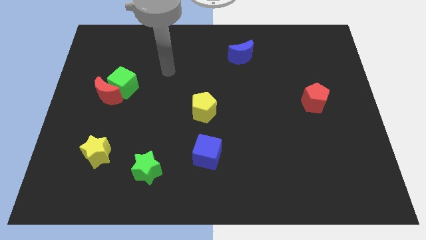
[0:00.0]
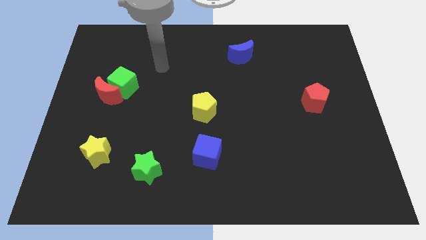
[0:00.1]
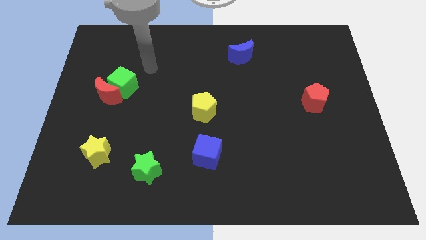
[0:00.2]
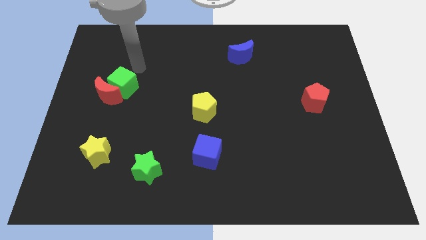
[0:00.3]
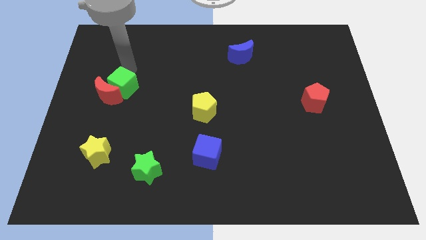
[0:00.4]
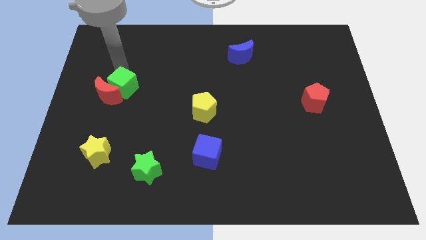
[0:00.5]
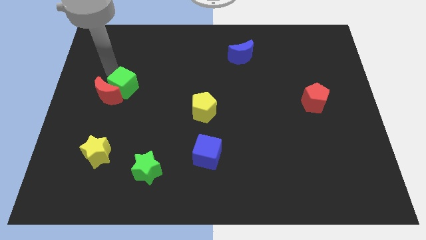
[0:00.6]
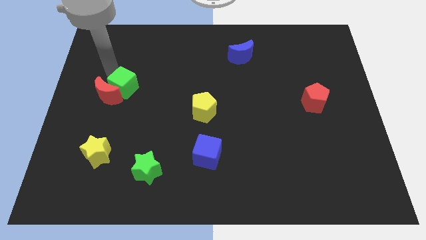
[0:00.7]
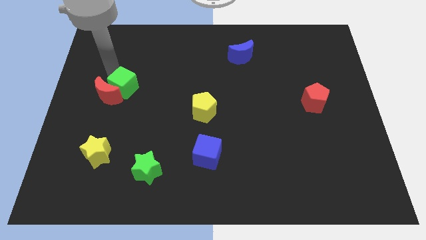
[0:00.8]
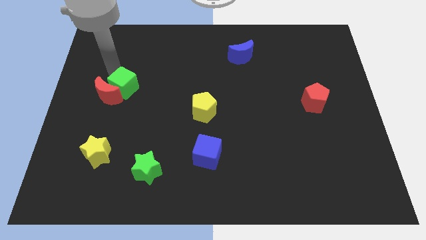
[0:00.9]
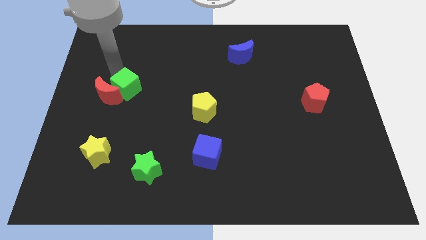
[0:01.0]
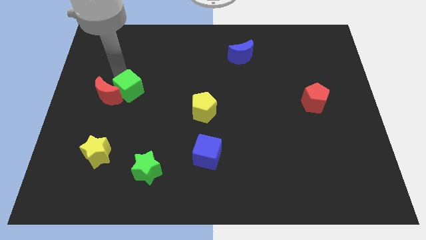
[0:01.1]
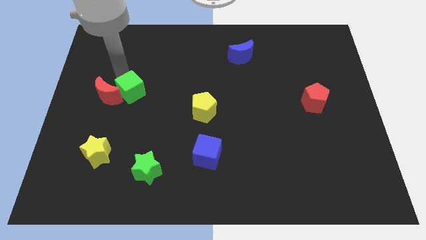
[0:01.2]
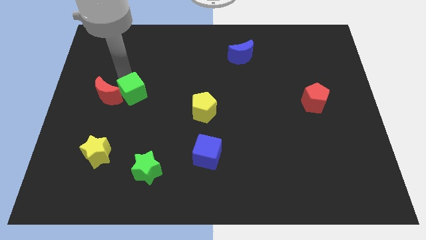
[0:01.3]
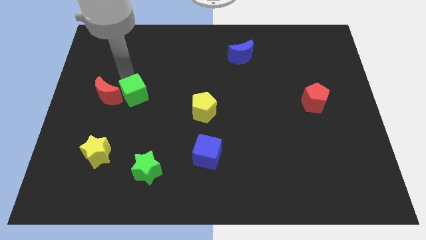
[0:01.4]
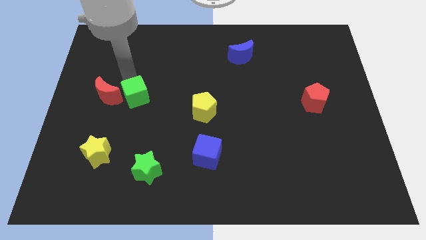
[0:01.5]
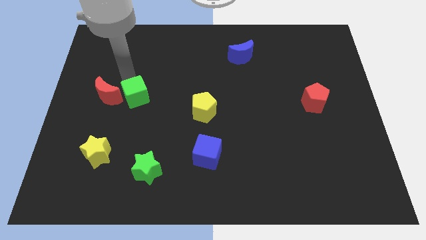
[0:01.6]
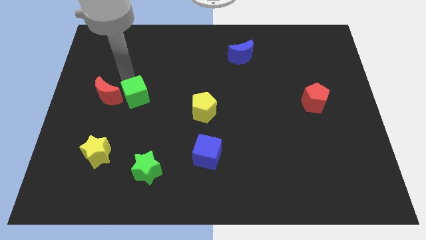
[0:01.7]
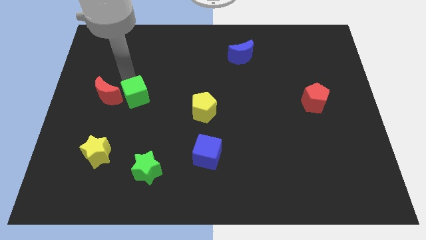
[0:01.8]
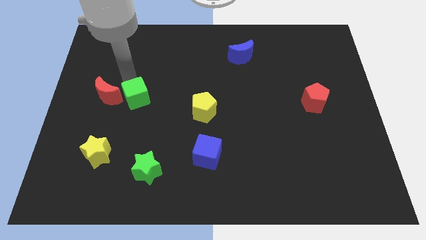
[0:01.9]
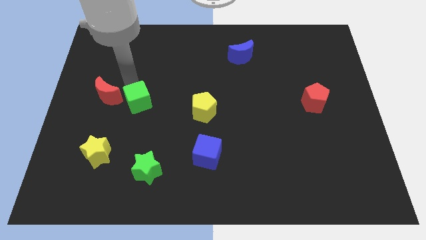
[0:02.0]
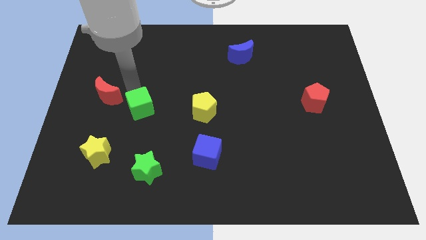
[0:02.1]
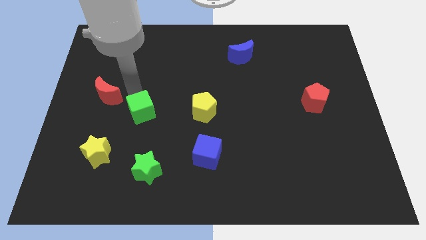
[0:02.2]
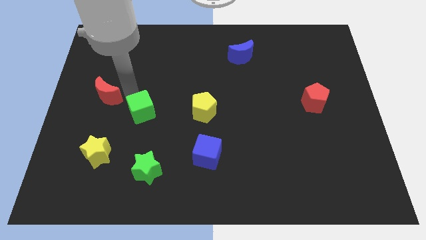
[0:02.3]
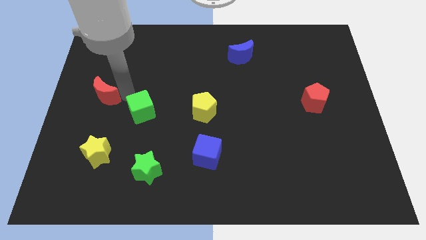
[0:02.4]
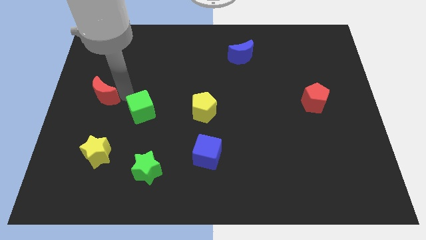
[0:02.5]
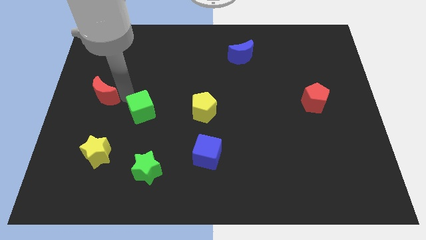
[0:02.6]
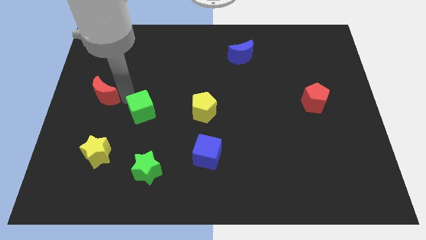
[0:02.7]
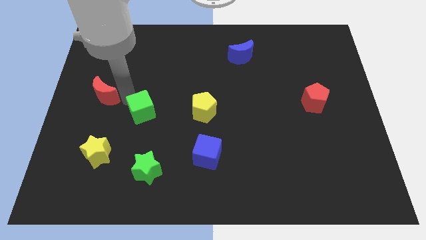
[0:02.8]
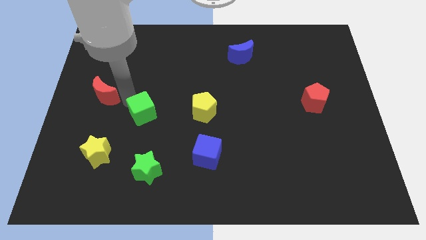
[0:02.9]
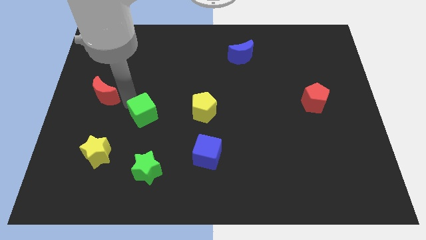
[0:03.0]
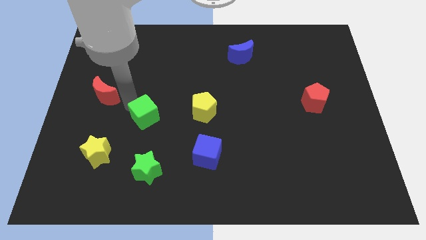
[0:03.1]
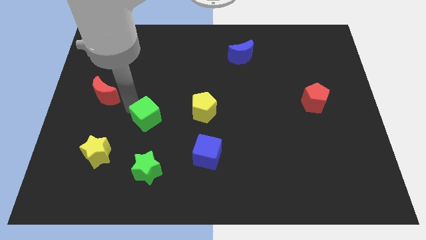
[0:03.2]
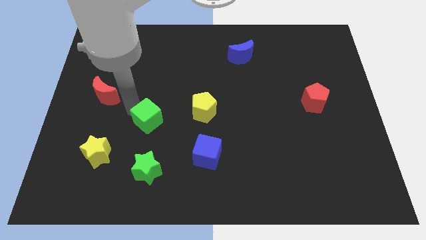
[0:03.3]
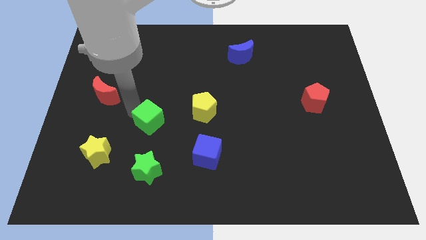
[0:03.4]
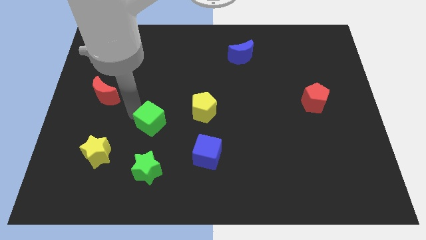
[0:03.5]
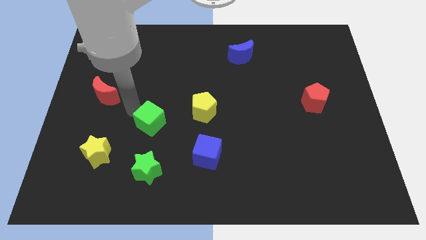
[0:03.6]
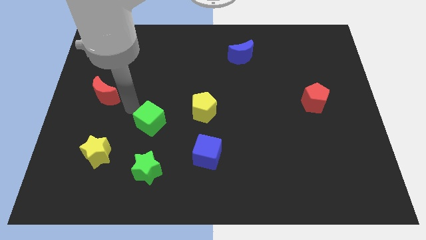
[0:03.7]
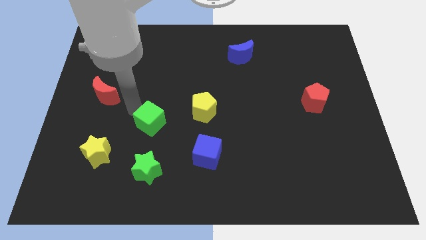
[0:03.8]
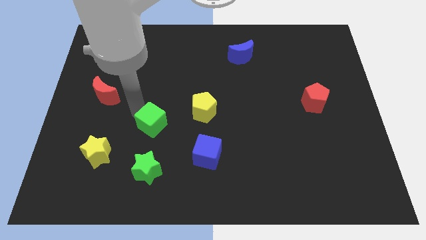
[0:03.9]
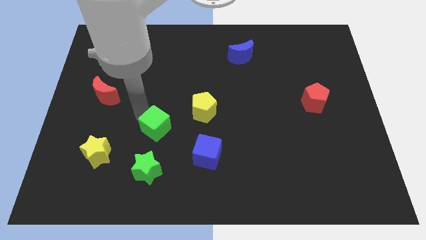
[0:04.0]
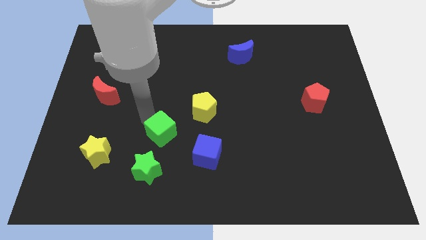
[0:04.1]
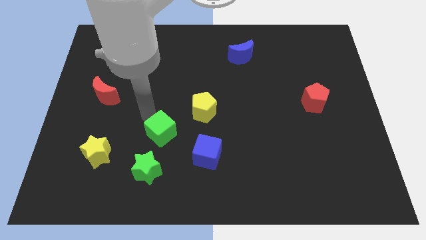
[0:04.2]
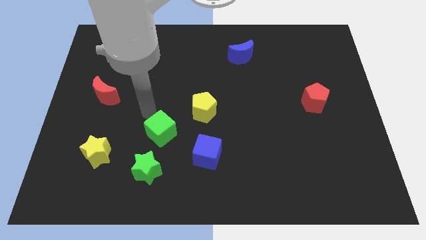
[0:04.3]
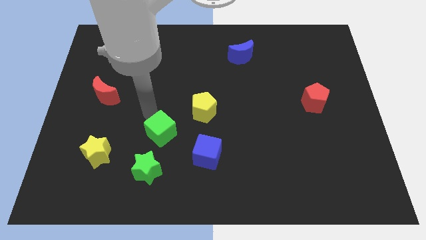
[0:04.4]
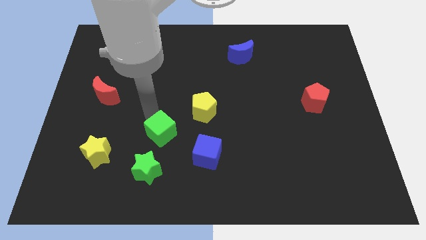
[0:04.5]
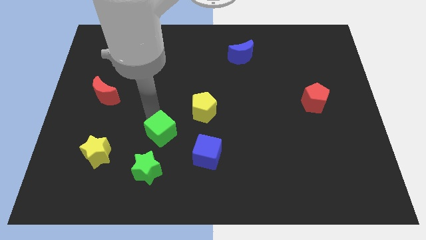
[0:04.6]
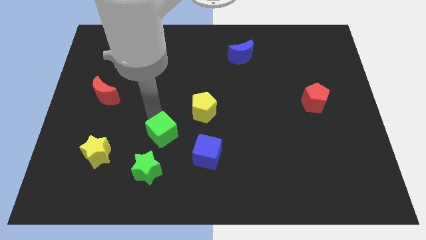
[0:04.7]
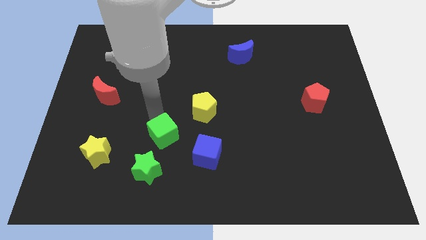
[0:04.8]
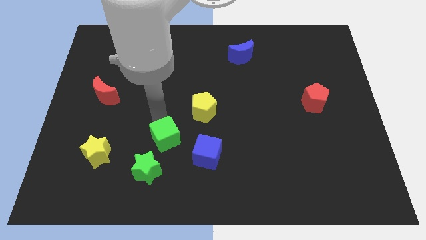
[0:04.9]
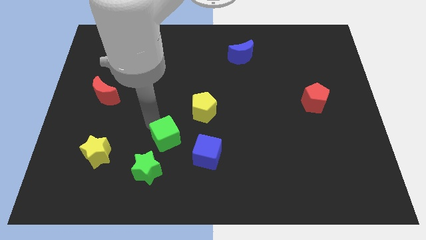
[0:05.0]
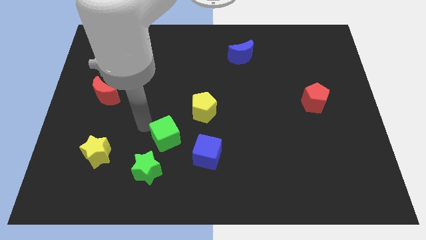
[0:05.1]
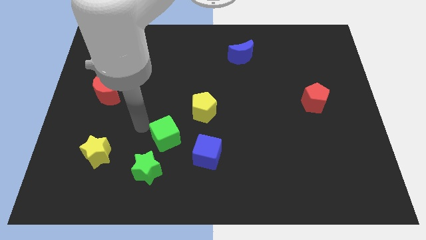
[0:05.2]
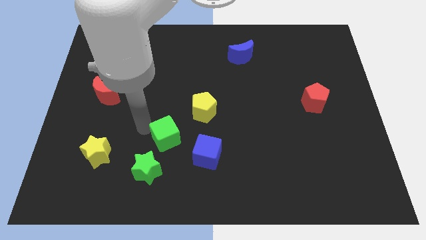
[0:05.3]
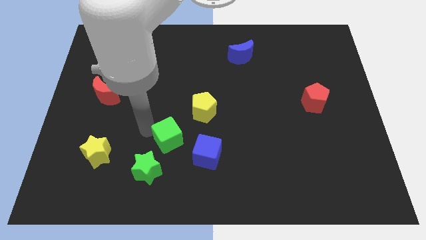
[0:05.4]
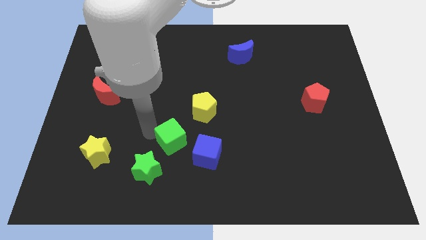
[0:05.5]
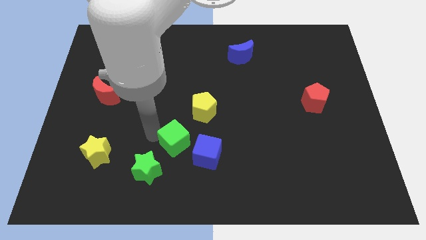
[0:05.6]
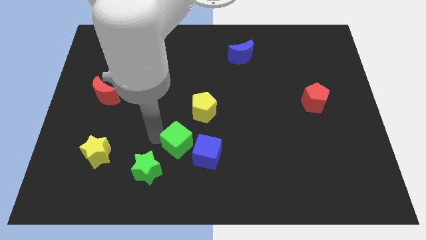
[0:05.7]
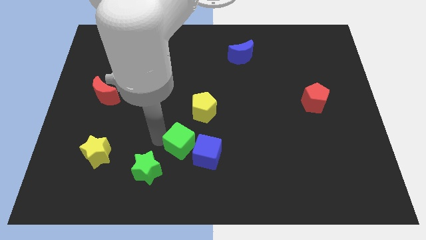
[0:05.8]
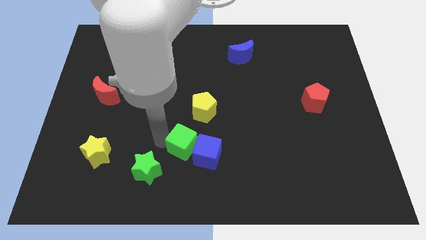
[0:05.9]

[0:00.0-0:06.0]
push the green cube close to the blue cube

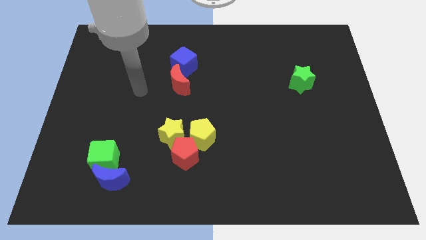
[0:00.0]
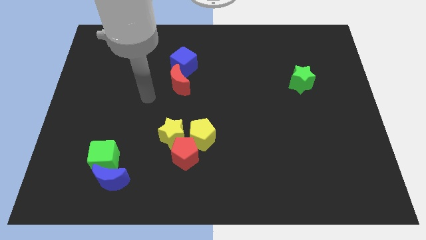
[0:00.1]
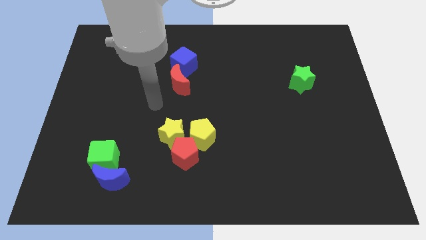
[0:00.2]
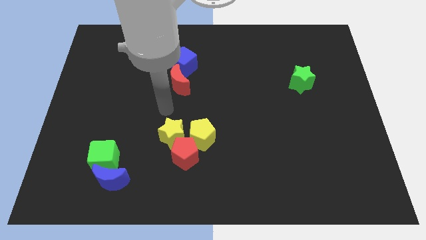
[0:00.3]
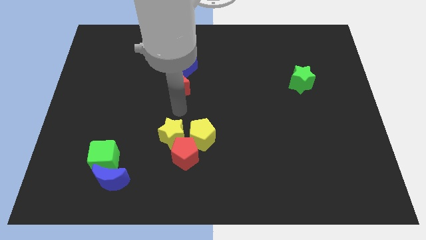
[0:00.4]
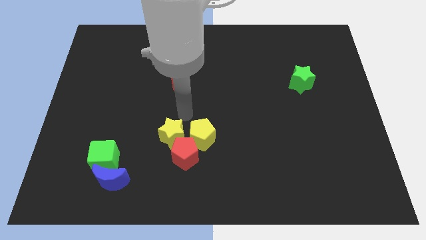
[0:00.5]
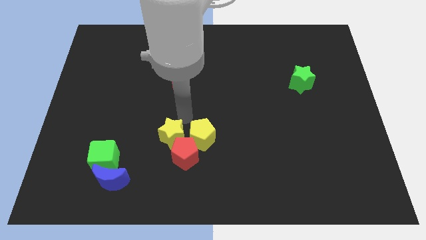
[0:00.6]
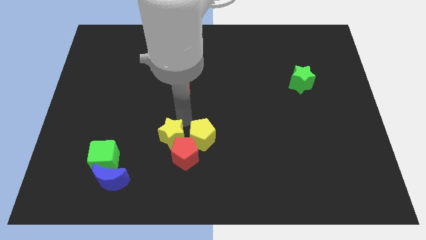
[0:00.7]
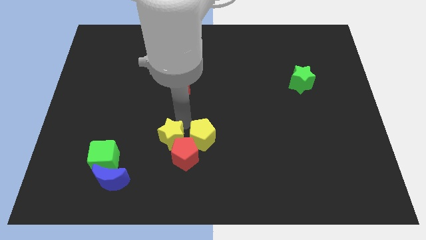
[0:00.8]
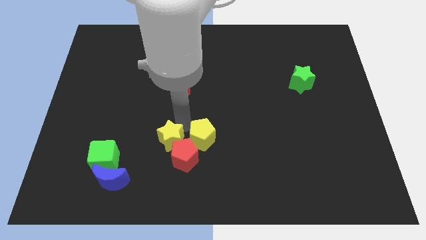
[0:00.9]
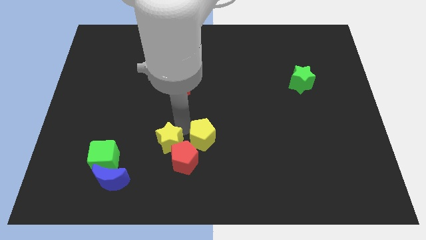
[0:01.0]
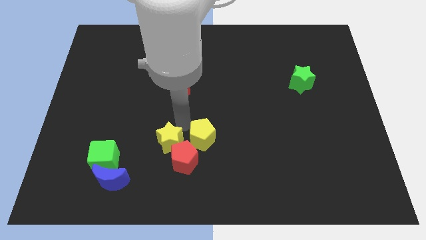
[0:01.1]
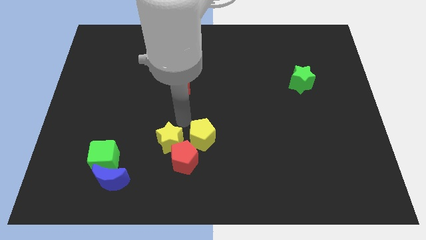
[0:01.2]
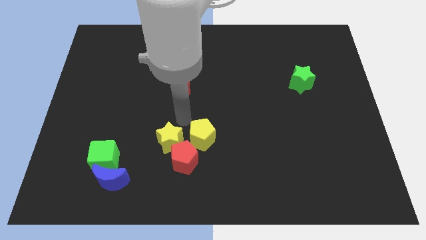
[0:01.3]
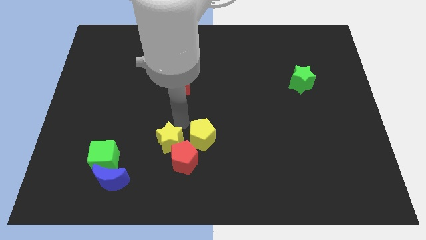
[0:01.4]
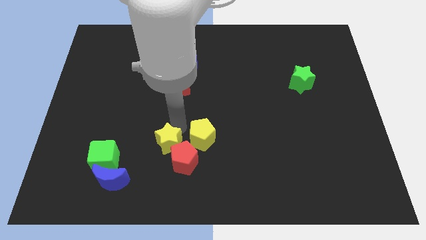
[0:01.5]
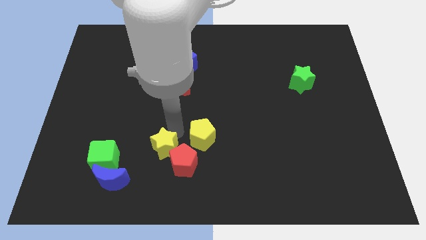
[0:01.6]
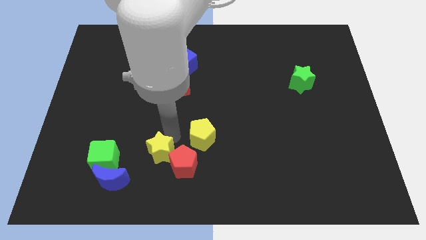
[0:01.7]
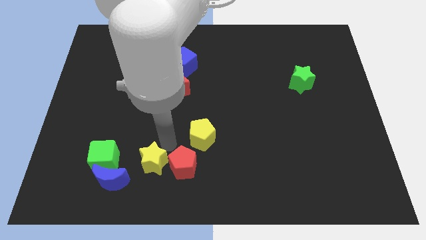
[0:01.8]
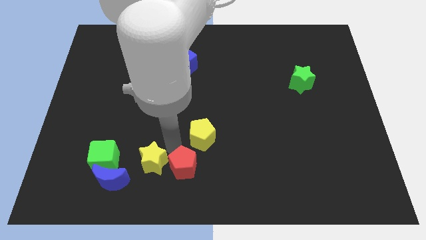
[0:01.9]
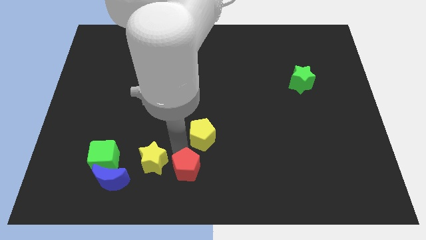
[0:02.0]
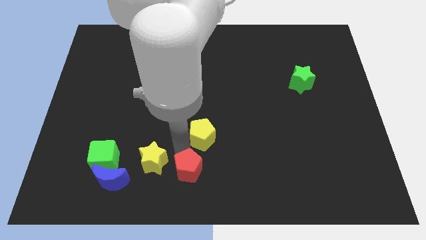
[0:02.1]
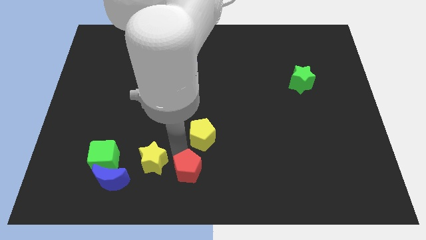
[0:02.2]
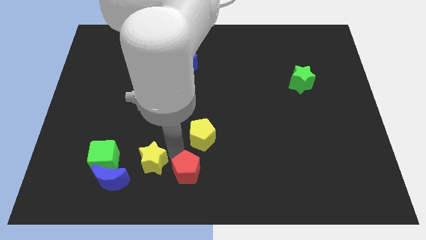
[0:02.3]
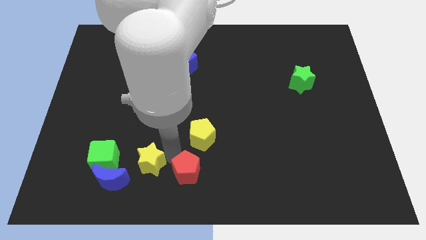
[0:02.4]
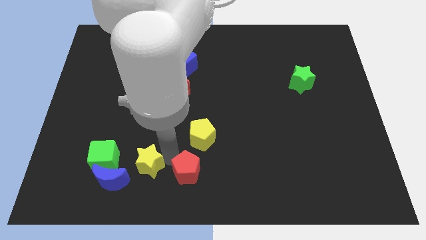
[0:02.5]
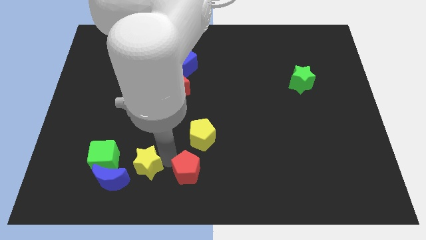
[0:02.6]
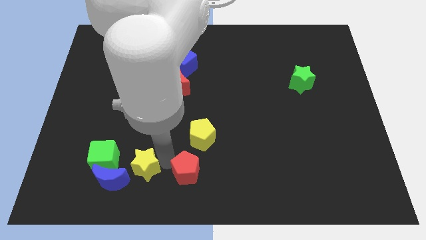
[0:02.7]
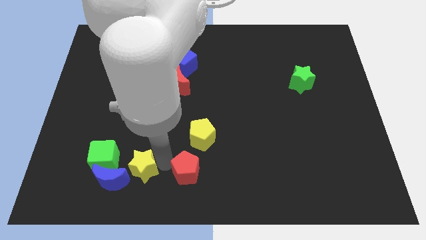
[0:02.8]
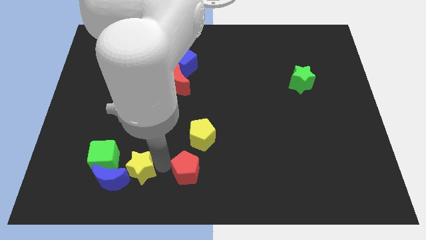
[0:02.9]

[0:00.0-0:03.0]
slide the yellow star to the blue moon
